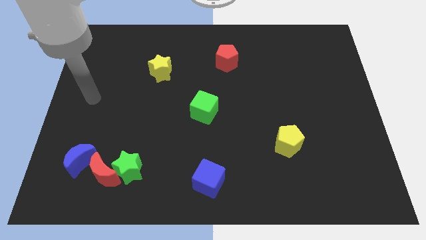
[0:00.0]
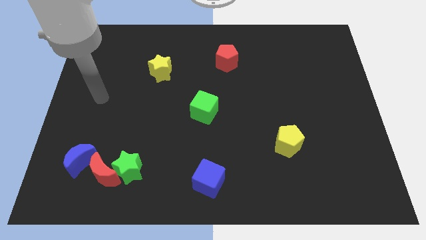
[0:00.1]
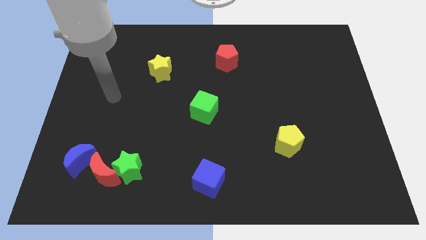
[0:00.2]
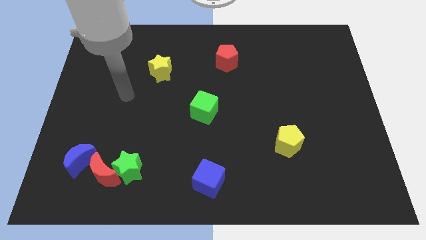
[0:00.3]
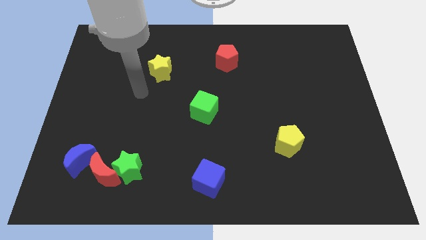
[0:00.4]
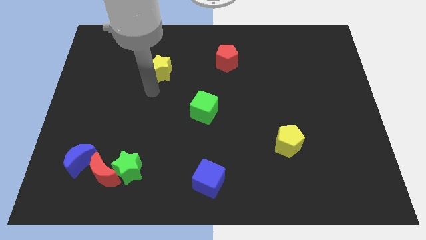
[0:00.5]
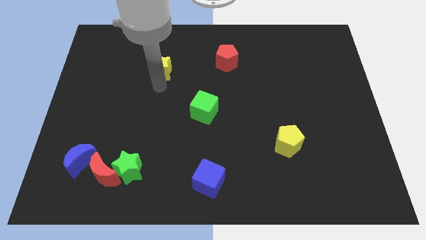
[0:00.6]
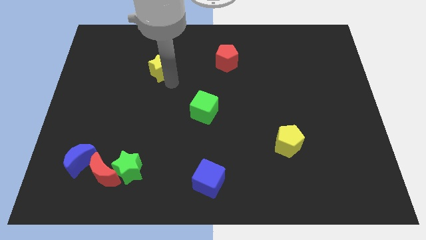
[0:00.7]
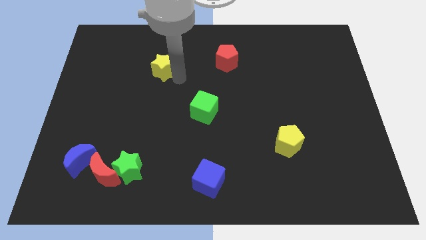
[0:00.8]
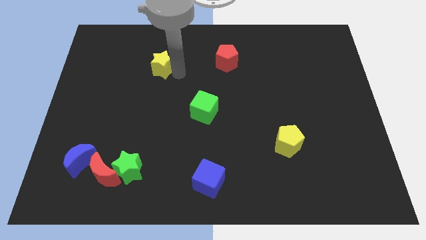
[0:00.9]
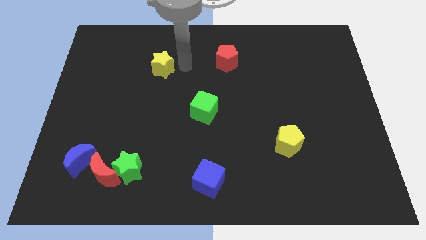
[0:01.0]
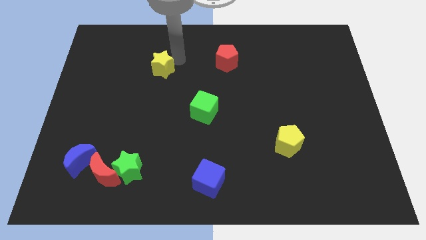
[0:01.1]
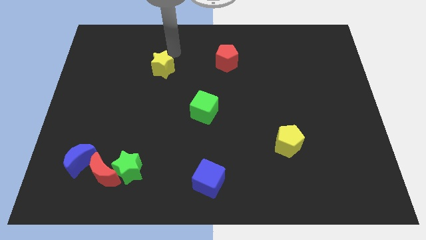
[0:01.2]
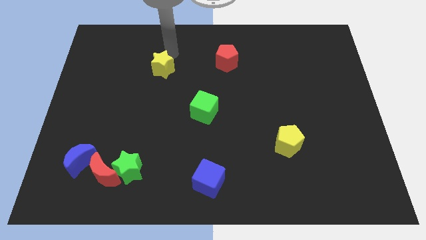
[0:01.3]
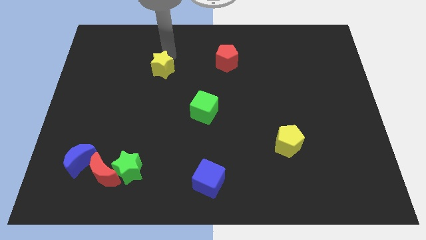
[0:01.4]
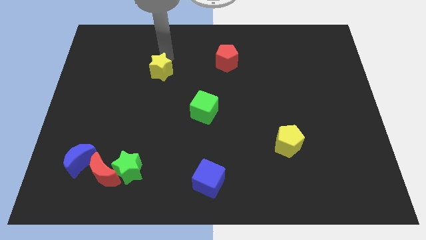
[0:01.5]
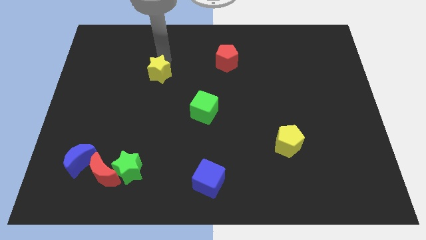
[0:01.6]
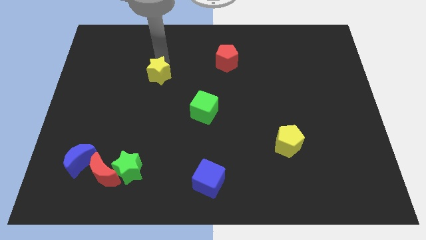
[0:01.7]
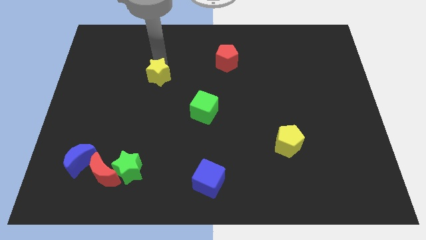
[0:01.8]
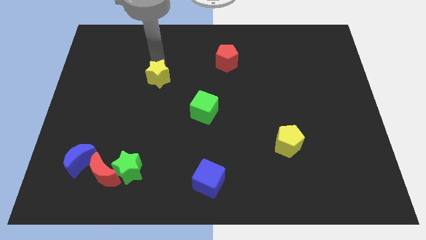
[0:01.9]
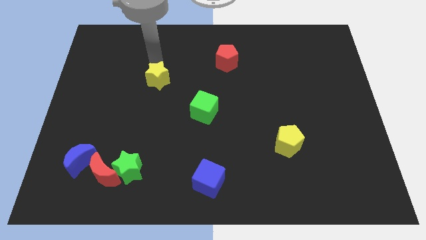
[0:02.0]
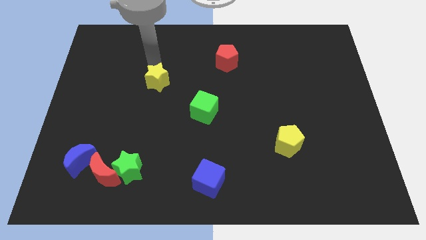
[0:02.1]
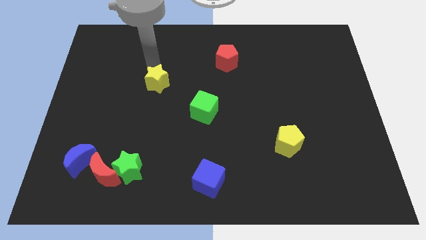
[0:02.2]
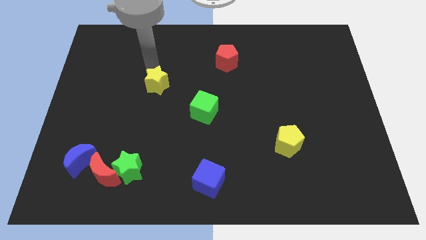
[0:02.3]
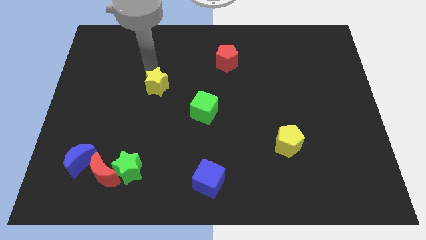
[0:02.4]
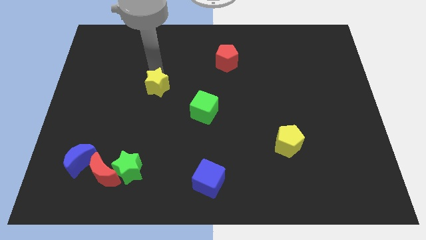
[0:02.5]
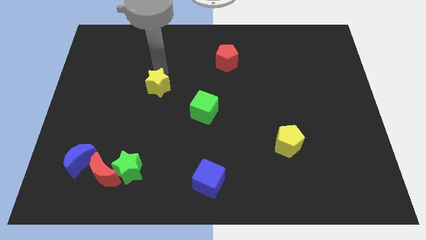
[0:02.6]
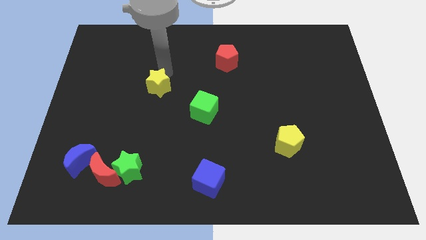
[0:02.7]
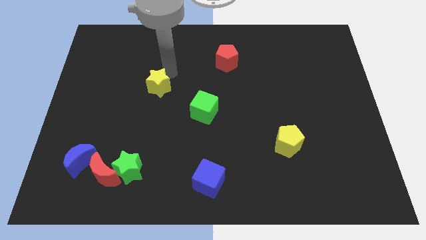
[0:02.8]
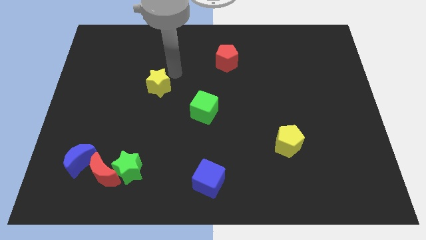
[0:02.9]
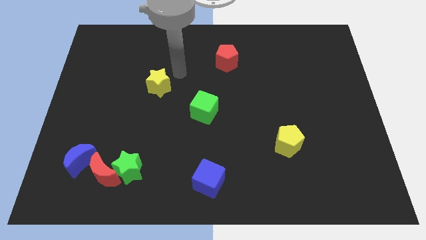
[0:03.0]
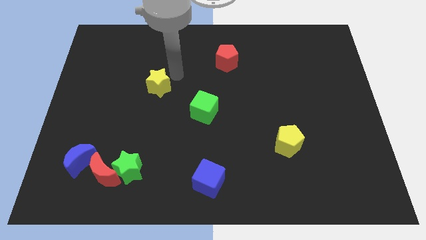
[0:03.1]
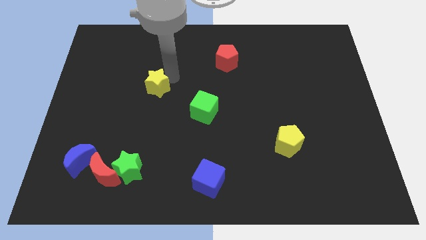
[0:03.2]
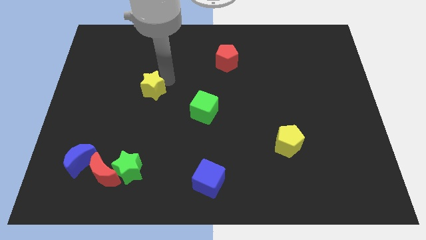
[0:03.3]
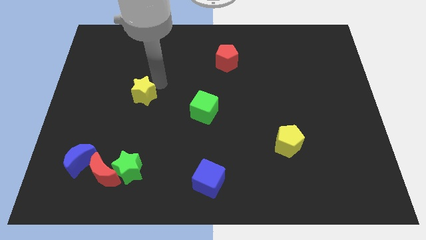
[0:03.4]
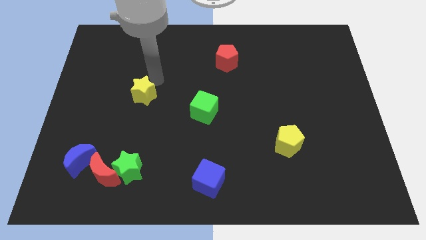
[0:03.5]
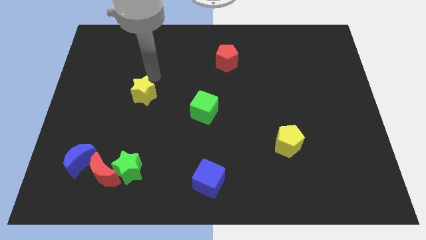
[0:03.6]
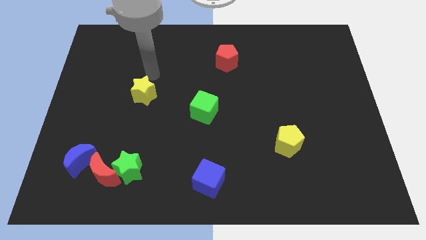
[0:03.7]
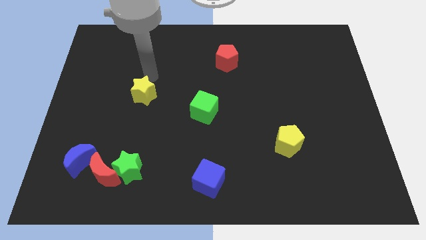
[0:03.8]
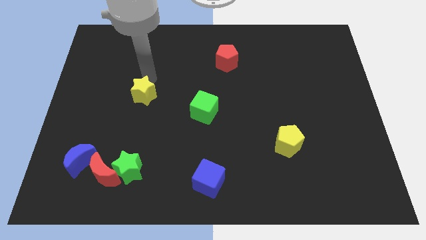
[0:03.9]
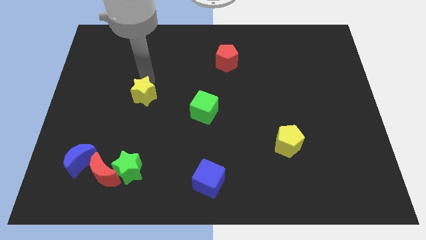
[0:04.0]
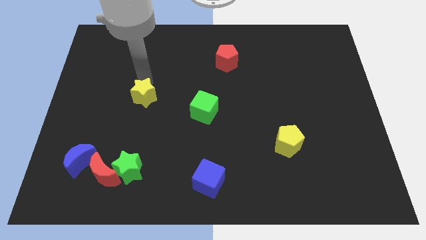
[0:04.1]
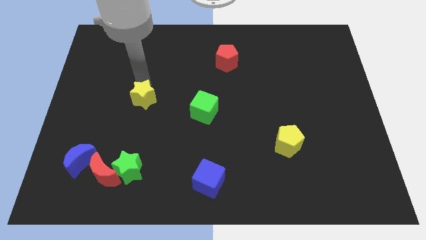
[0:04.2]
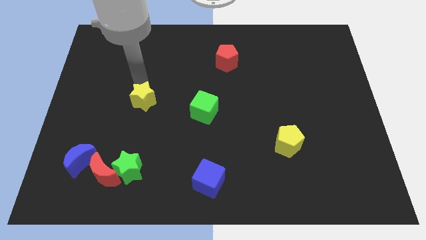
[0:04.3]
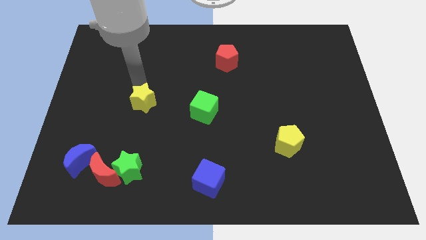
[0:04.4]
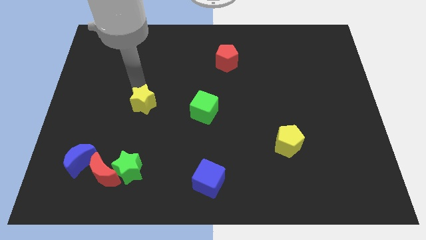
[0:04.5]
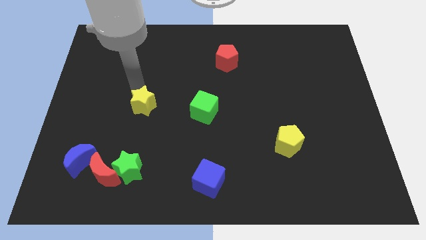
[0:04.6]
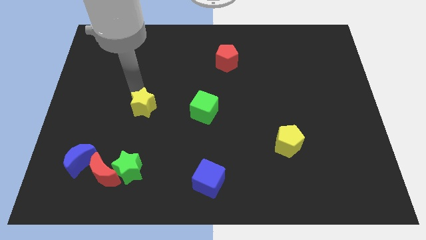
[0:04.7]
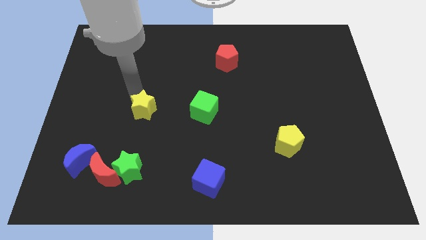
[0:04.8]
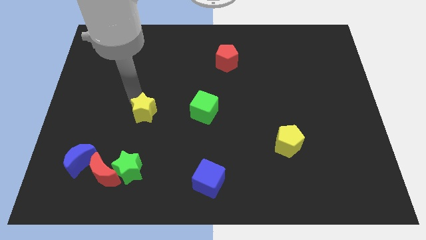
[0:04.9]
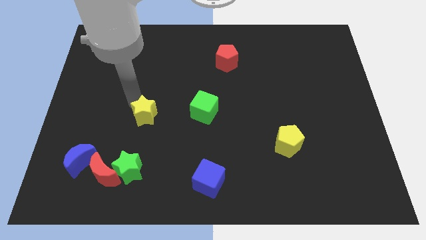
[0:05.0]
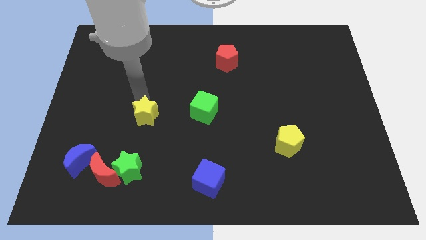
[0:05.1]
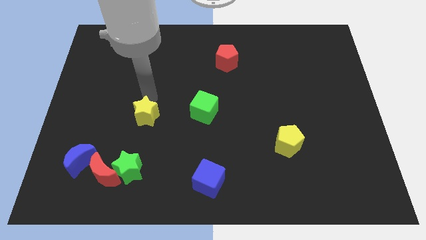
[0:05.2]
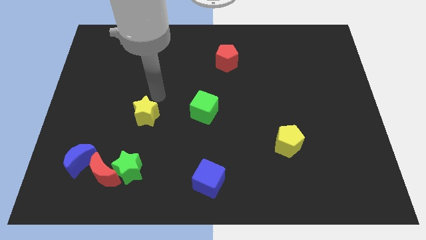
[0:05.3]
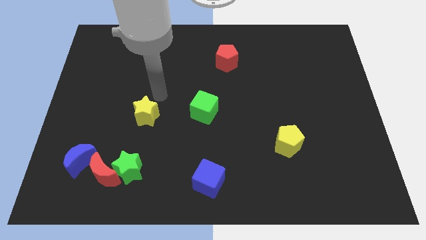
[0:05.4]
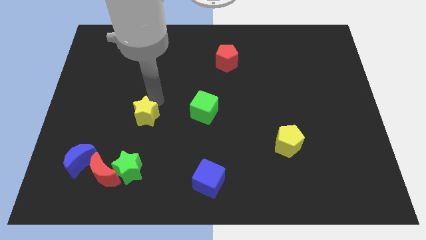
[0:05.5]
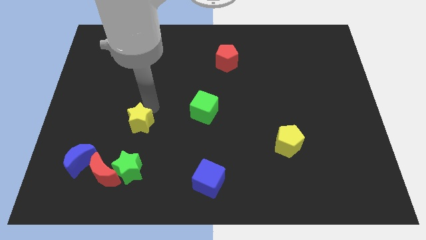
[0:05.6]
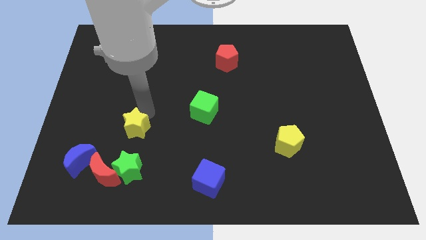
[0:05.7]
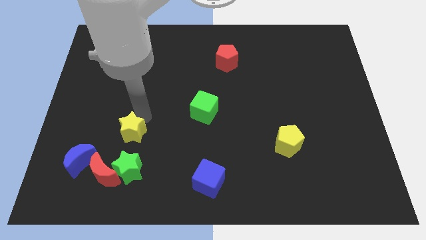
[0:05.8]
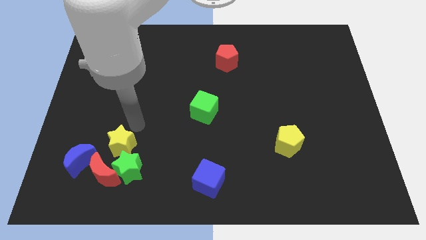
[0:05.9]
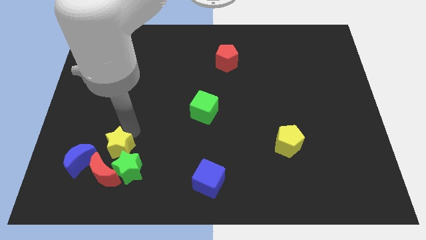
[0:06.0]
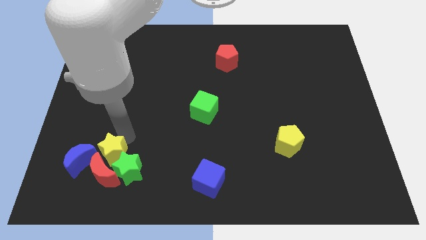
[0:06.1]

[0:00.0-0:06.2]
push the yellow star to the red moon
